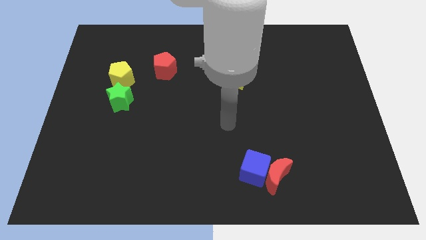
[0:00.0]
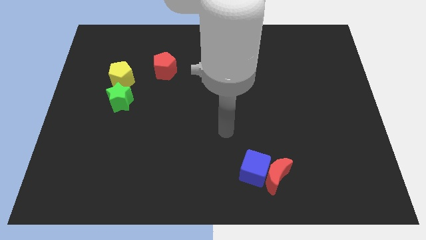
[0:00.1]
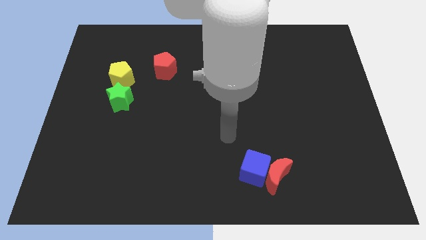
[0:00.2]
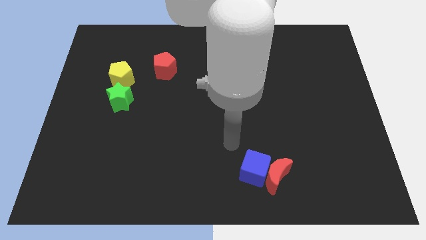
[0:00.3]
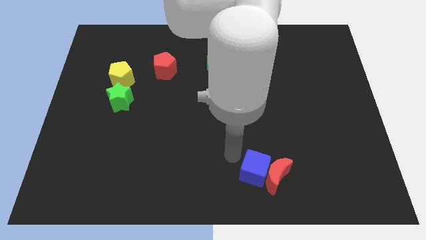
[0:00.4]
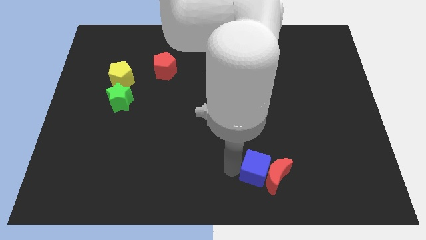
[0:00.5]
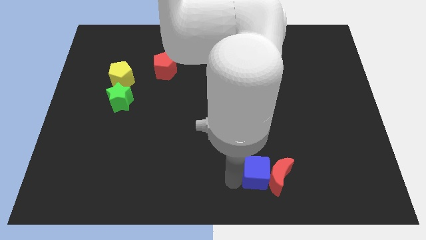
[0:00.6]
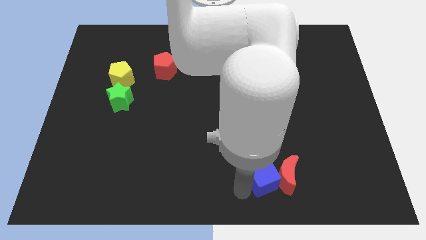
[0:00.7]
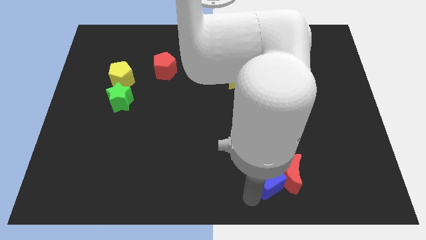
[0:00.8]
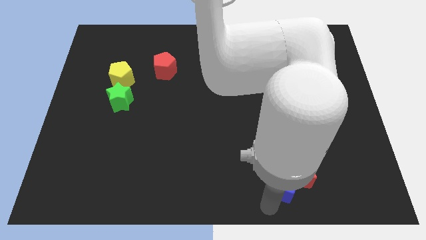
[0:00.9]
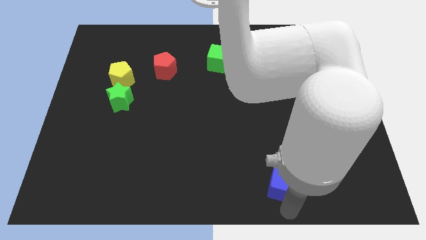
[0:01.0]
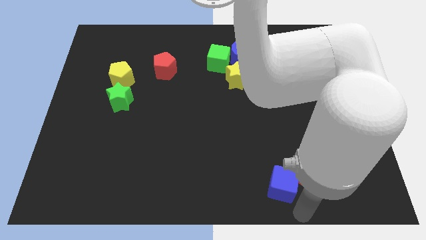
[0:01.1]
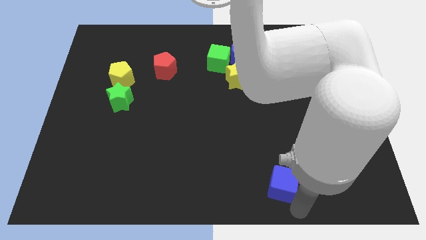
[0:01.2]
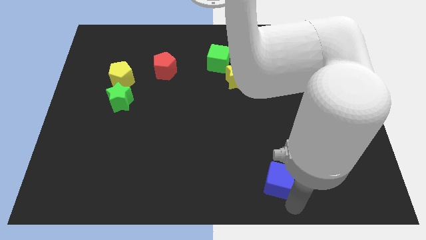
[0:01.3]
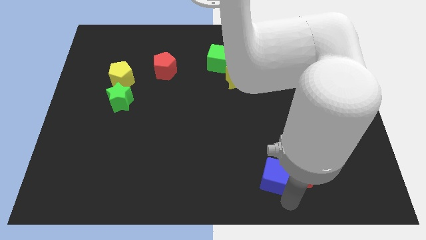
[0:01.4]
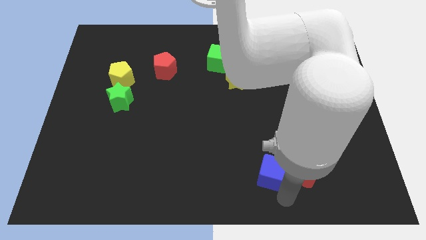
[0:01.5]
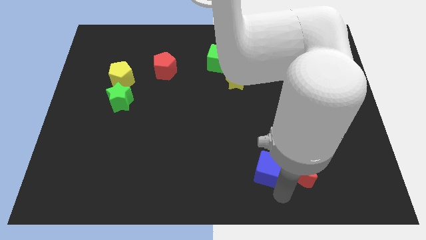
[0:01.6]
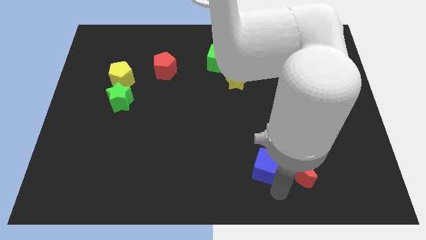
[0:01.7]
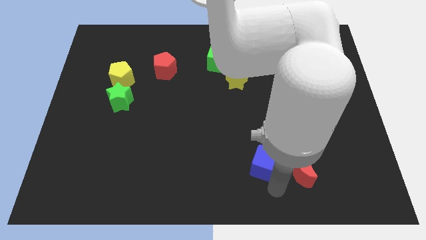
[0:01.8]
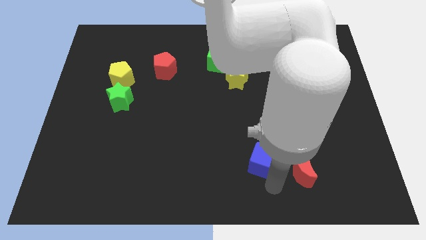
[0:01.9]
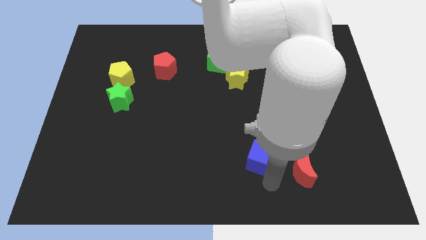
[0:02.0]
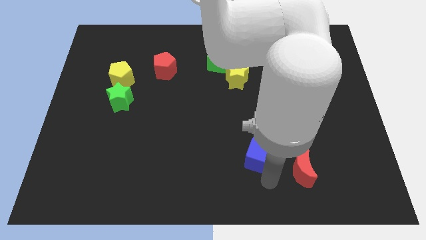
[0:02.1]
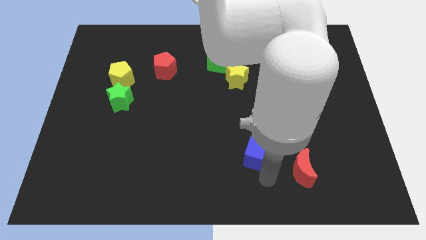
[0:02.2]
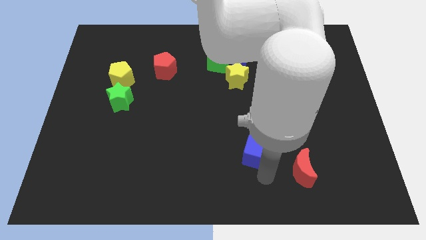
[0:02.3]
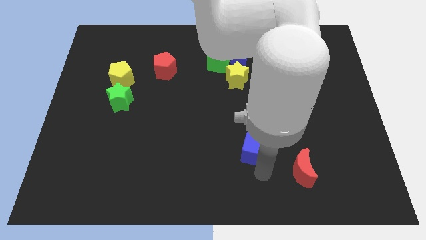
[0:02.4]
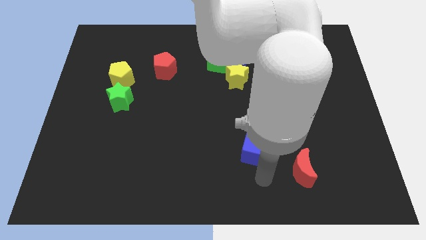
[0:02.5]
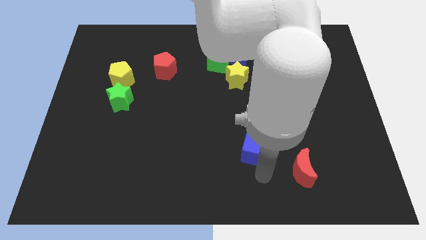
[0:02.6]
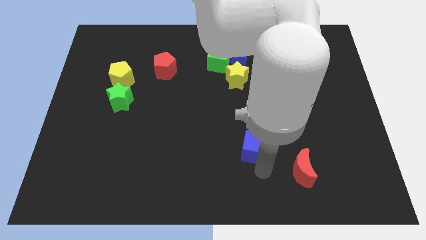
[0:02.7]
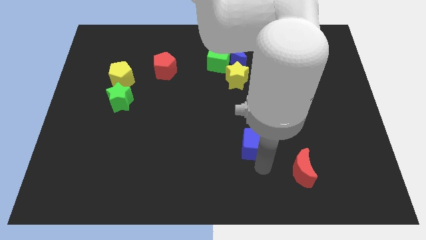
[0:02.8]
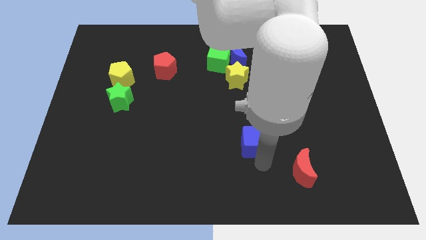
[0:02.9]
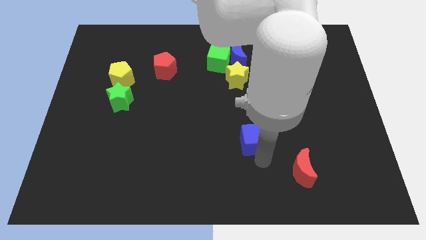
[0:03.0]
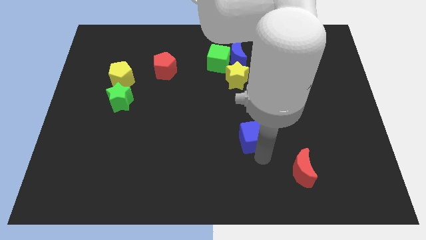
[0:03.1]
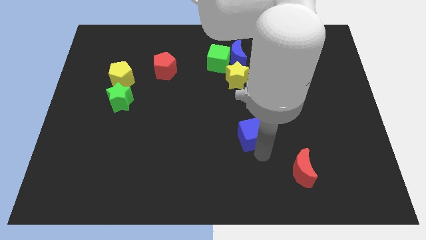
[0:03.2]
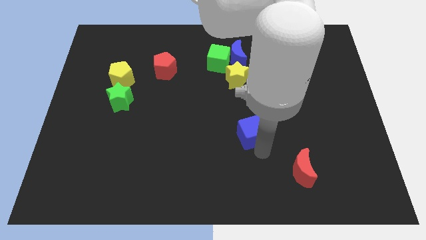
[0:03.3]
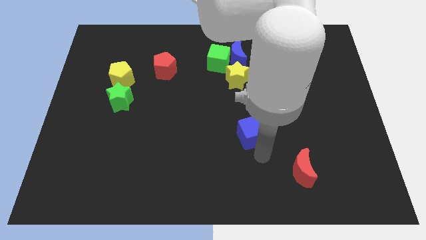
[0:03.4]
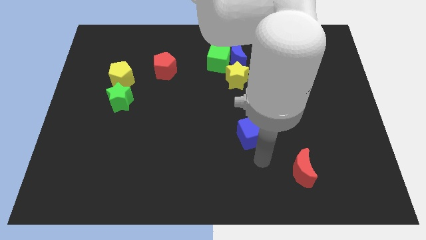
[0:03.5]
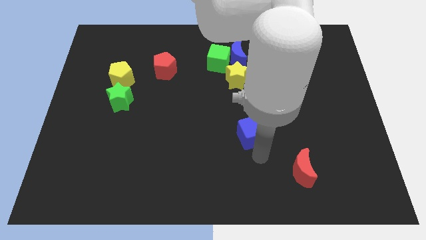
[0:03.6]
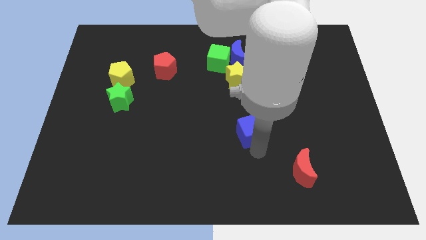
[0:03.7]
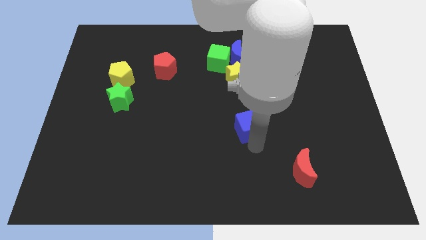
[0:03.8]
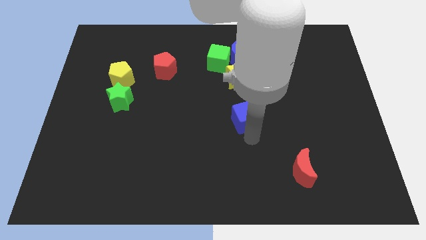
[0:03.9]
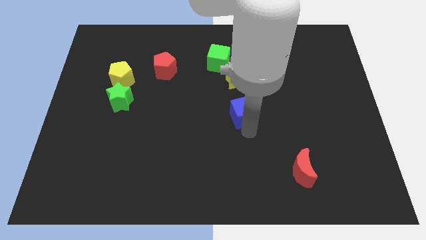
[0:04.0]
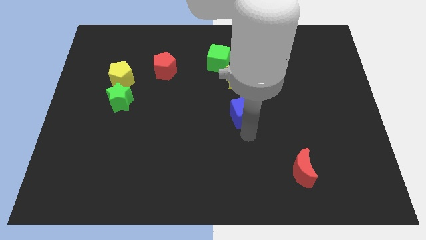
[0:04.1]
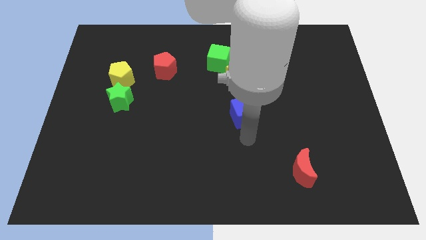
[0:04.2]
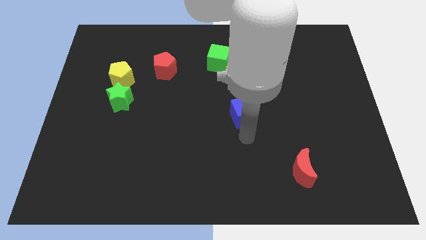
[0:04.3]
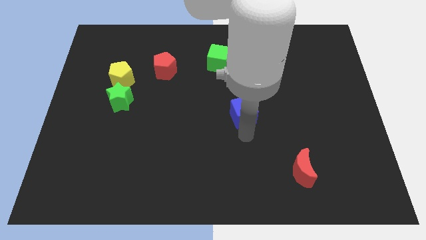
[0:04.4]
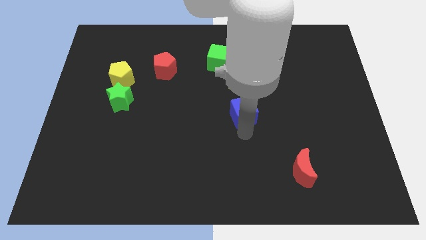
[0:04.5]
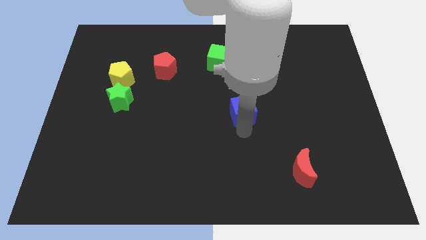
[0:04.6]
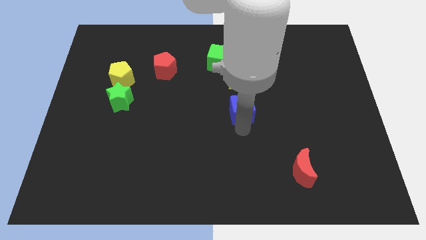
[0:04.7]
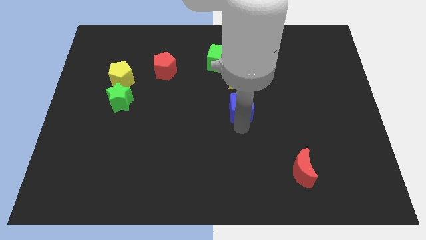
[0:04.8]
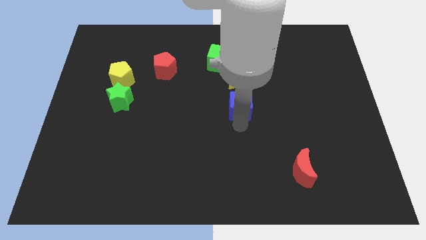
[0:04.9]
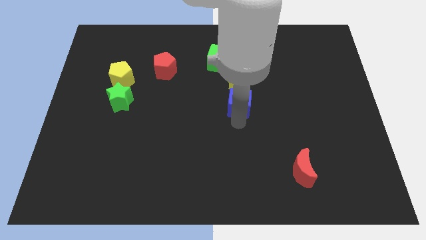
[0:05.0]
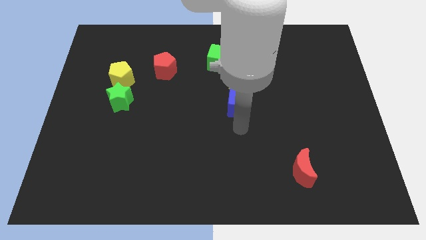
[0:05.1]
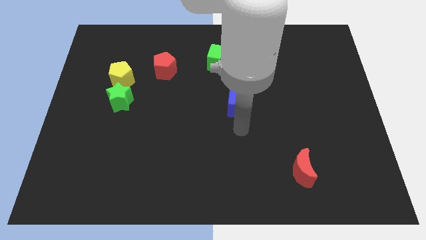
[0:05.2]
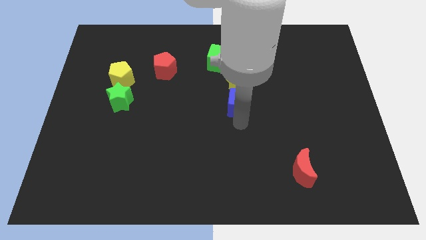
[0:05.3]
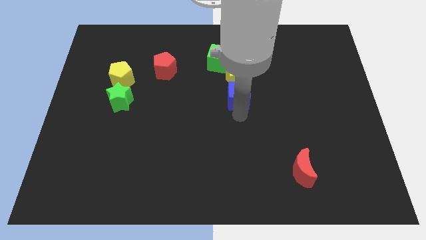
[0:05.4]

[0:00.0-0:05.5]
slide the blue cube close to the yellow star

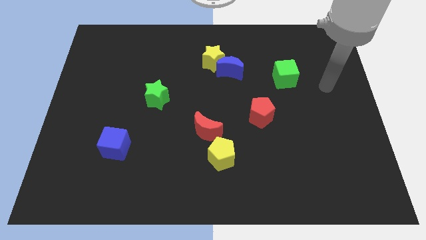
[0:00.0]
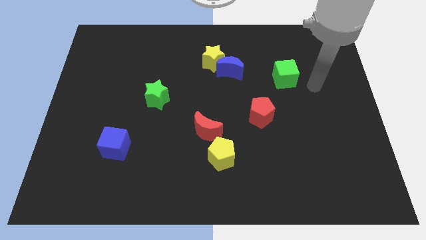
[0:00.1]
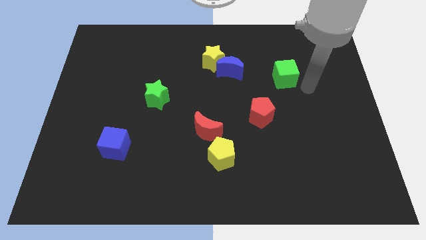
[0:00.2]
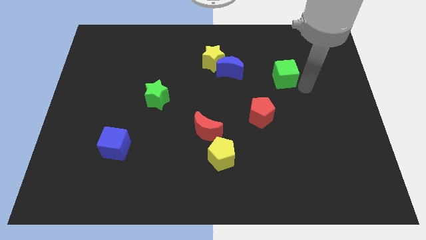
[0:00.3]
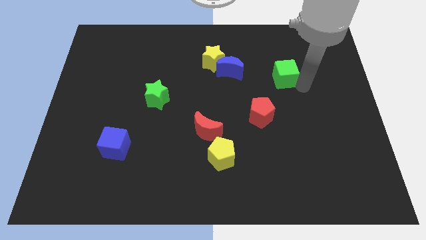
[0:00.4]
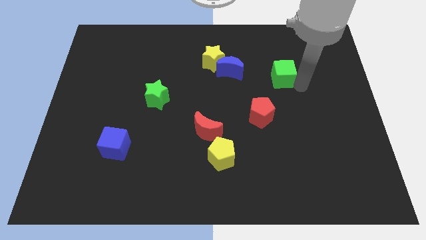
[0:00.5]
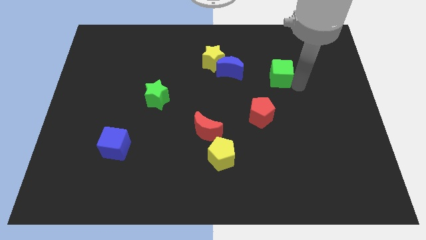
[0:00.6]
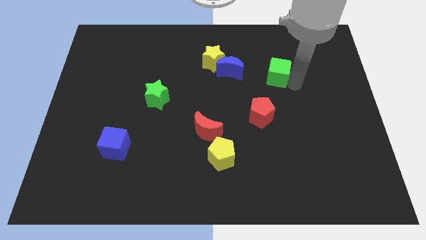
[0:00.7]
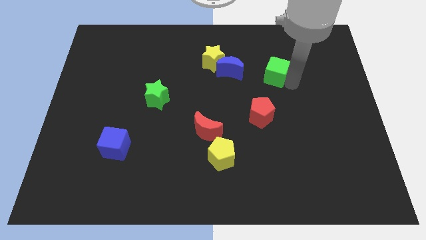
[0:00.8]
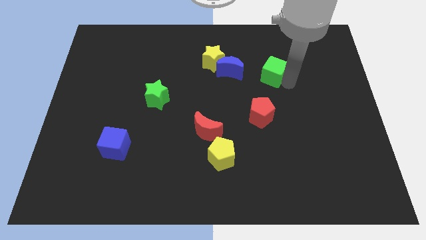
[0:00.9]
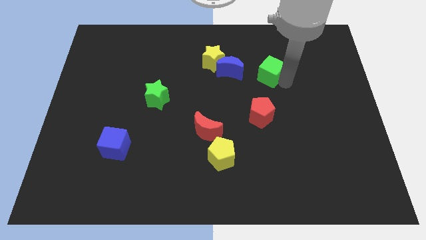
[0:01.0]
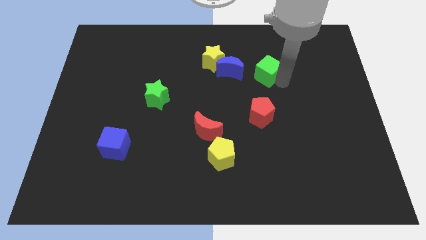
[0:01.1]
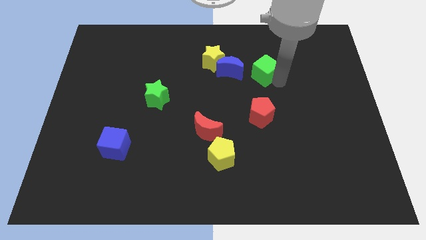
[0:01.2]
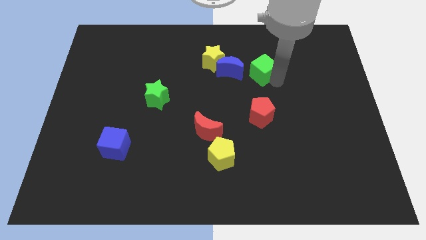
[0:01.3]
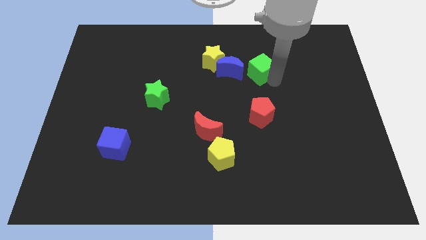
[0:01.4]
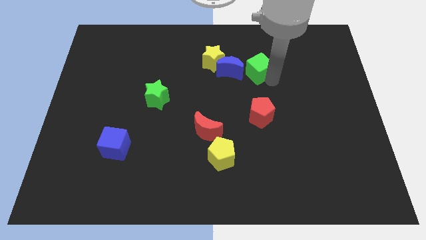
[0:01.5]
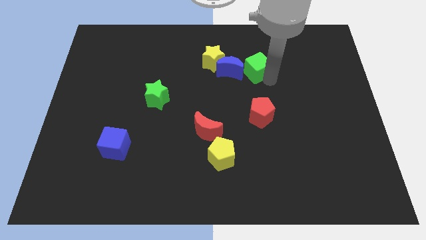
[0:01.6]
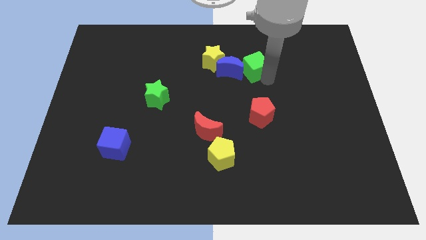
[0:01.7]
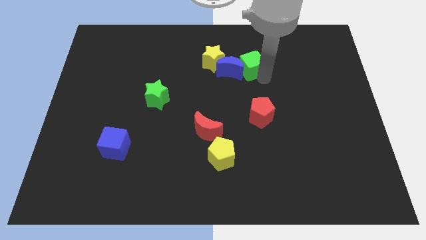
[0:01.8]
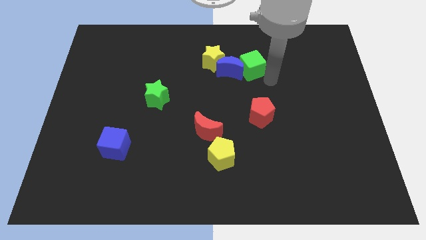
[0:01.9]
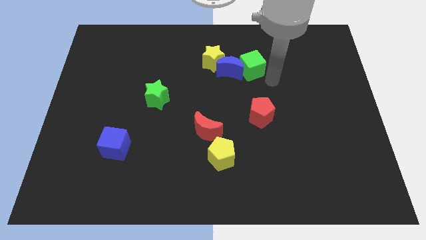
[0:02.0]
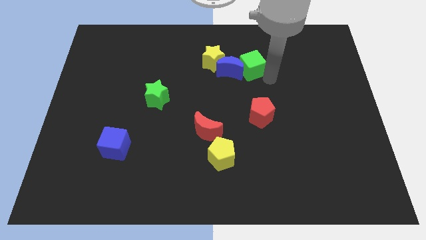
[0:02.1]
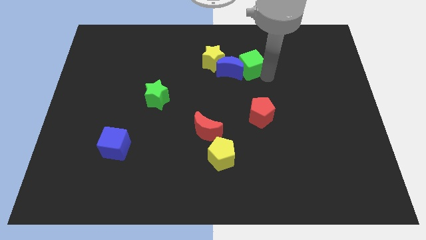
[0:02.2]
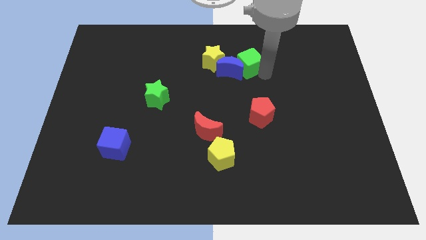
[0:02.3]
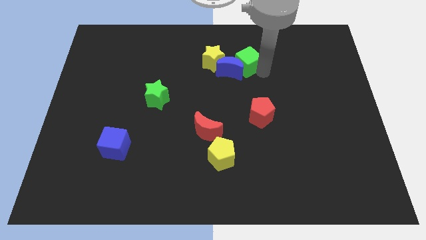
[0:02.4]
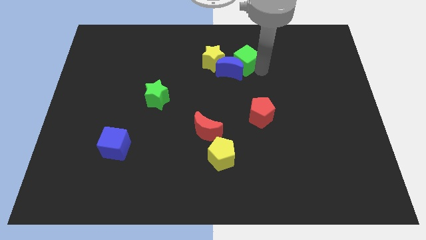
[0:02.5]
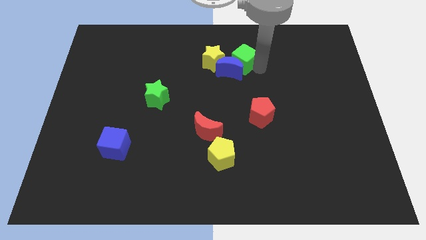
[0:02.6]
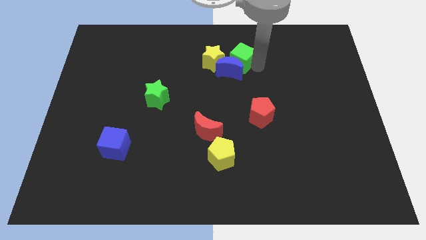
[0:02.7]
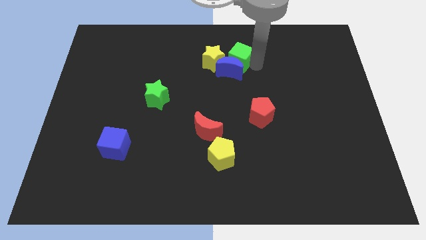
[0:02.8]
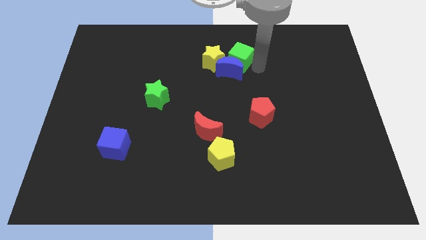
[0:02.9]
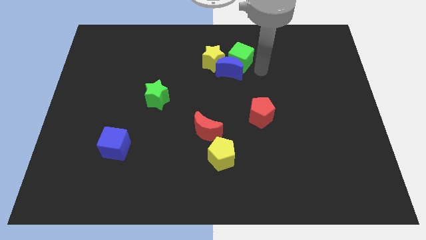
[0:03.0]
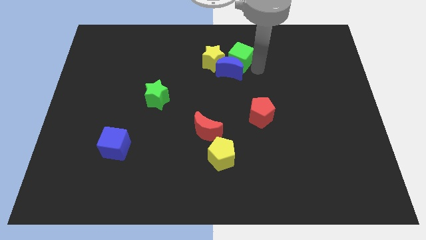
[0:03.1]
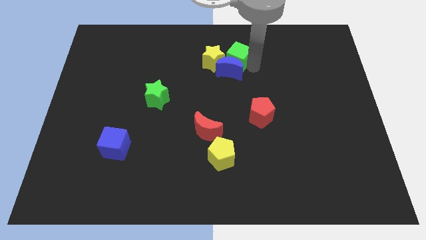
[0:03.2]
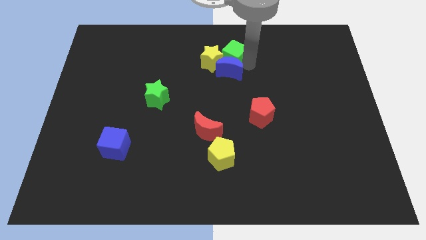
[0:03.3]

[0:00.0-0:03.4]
push the green cube towards the yellow star
